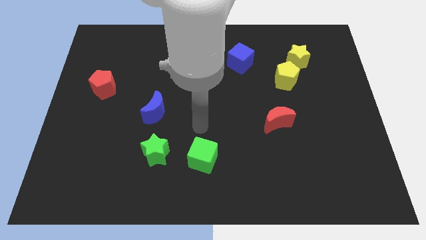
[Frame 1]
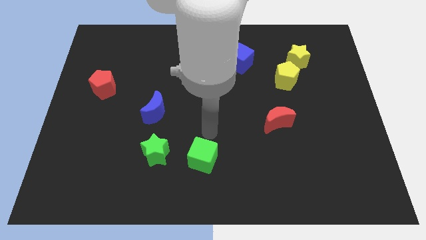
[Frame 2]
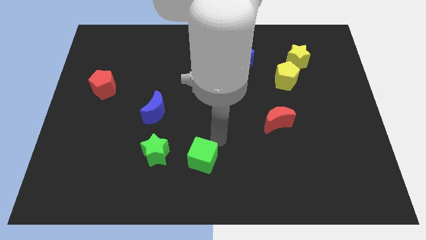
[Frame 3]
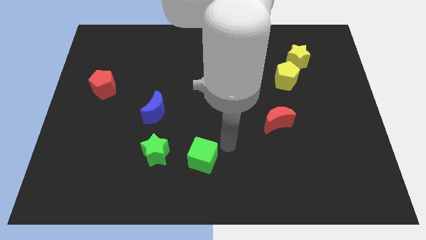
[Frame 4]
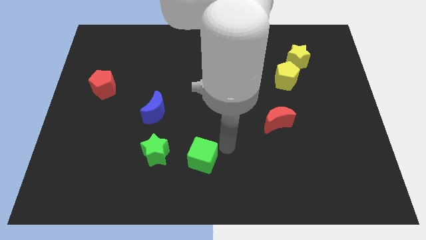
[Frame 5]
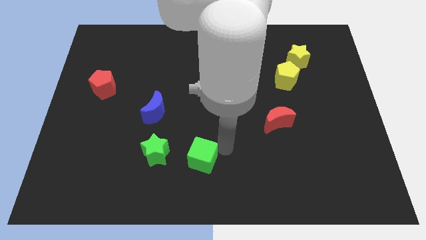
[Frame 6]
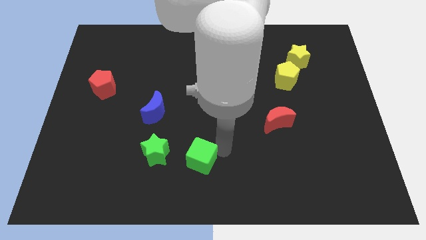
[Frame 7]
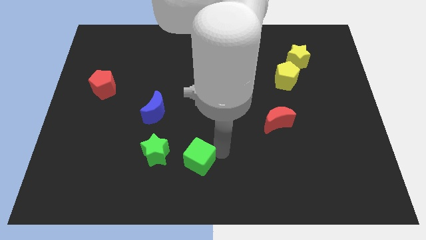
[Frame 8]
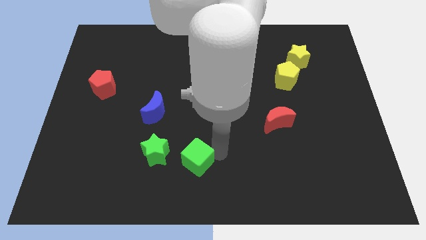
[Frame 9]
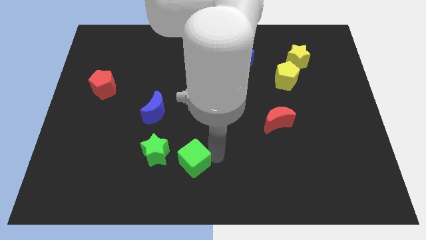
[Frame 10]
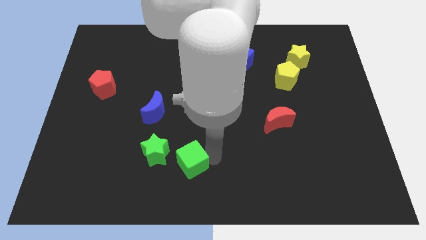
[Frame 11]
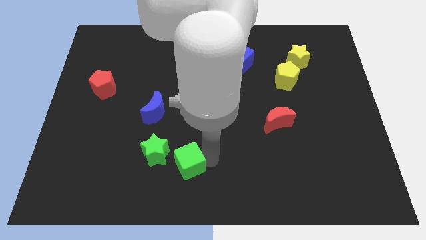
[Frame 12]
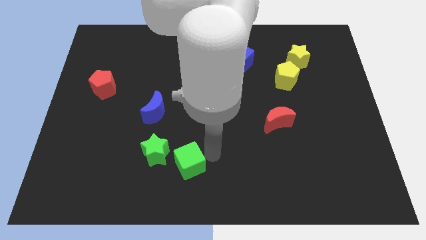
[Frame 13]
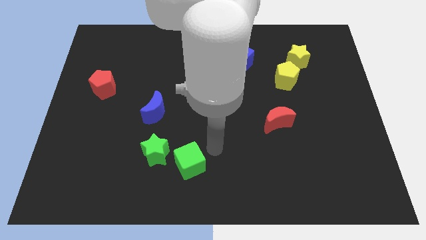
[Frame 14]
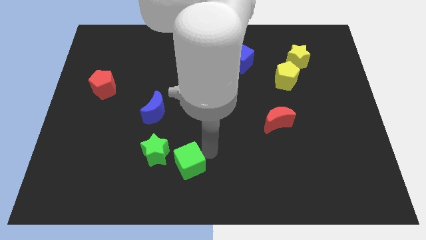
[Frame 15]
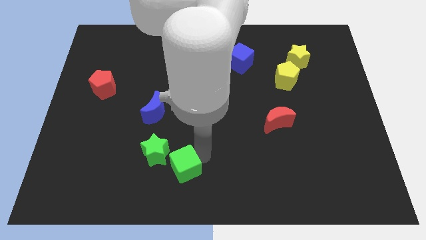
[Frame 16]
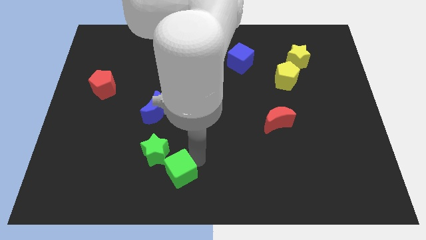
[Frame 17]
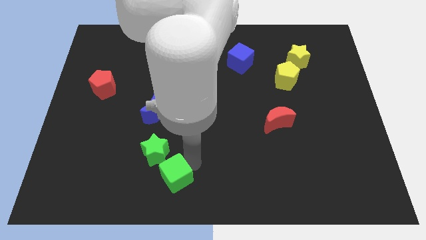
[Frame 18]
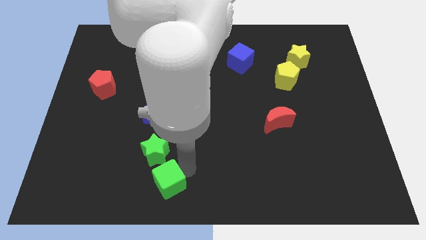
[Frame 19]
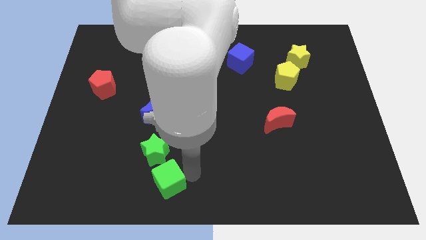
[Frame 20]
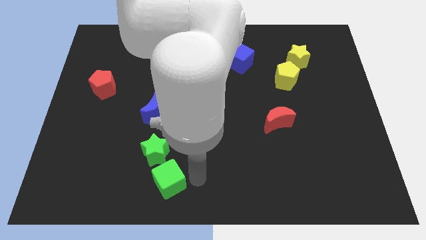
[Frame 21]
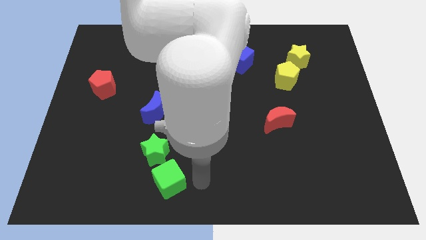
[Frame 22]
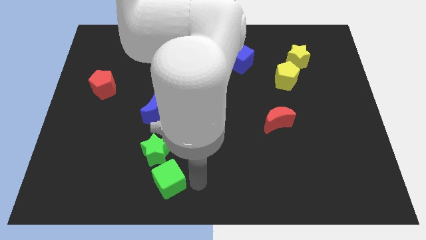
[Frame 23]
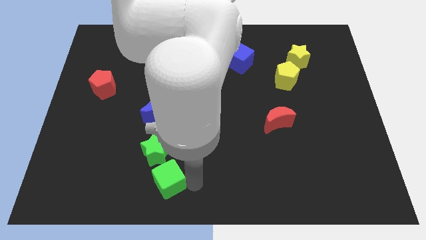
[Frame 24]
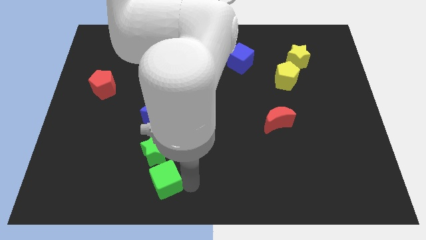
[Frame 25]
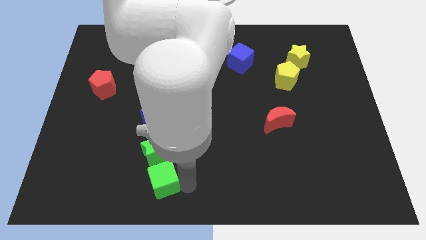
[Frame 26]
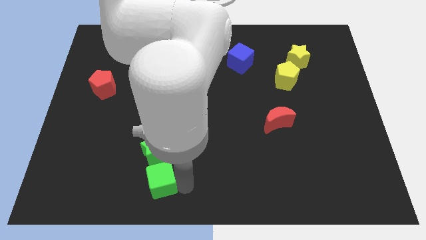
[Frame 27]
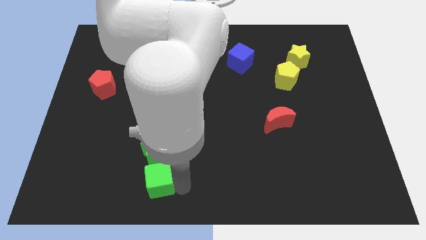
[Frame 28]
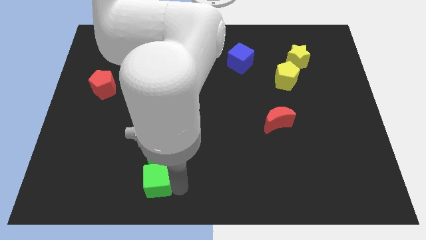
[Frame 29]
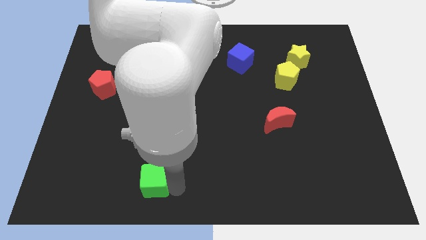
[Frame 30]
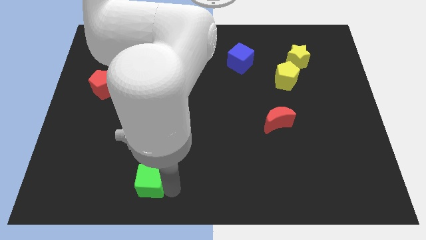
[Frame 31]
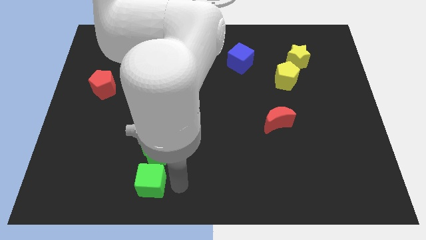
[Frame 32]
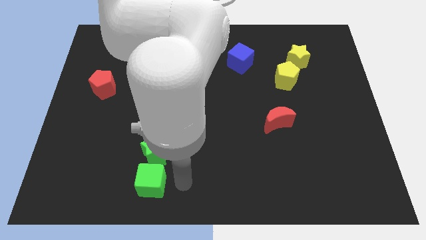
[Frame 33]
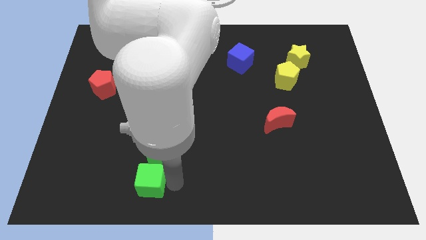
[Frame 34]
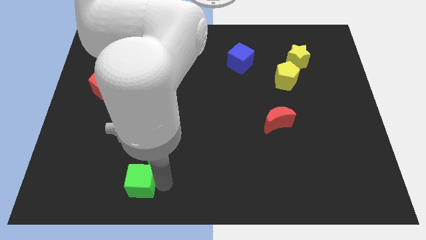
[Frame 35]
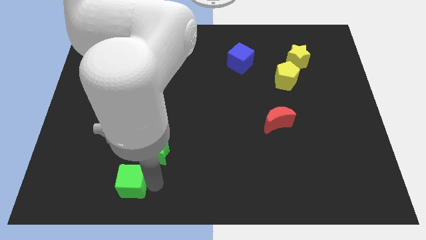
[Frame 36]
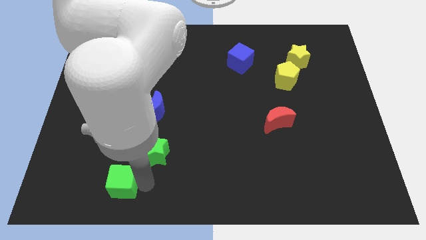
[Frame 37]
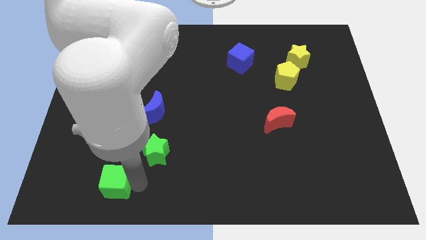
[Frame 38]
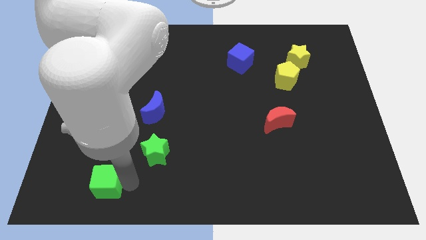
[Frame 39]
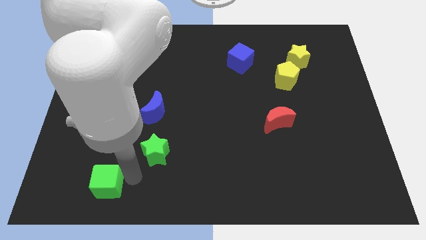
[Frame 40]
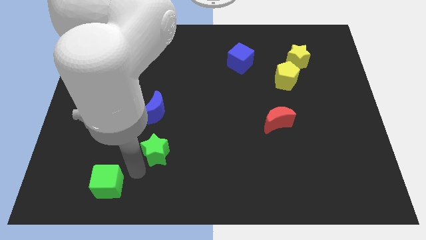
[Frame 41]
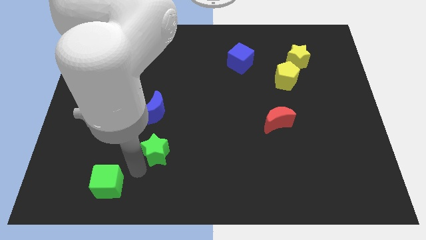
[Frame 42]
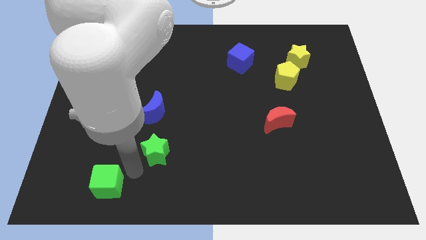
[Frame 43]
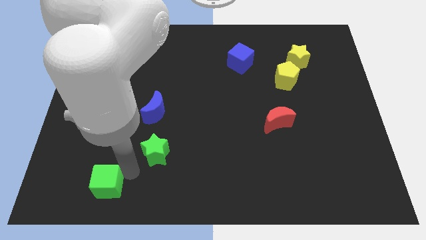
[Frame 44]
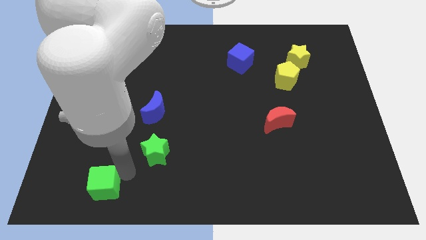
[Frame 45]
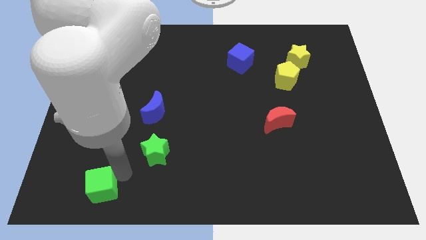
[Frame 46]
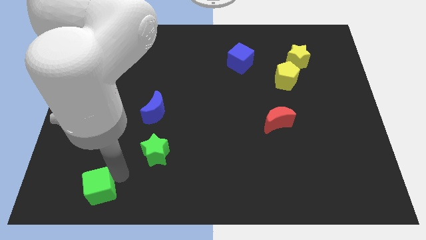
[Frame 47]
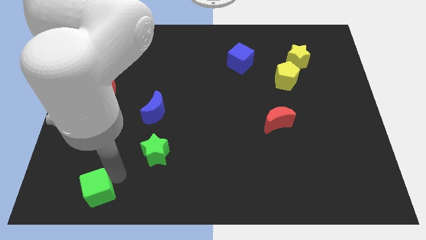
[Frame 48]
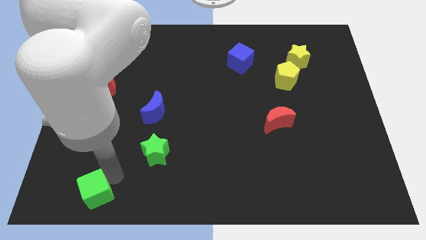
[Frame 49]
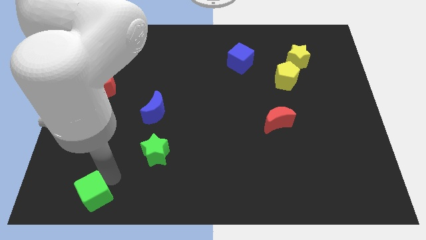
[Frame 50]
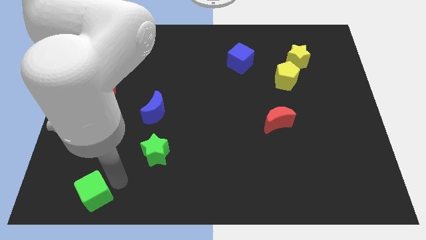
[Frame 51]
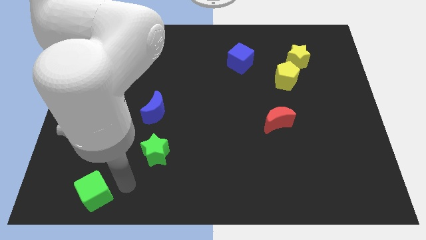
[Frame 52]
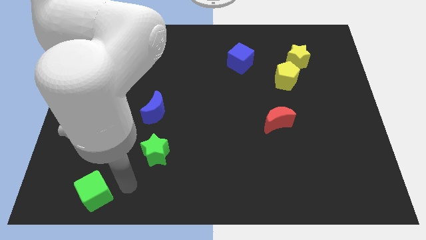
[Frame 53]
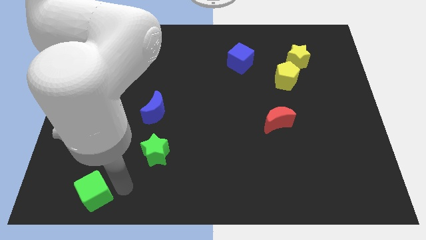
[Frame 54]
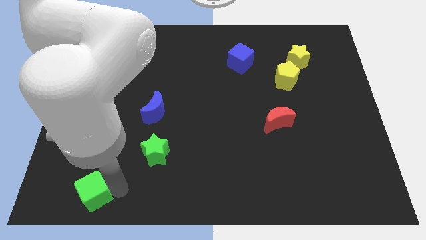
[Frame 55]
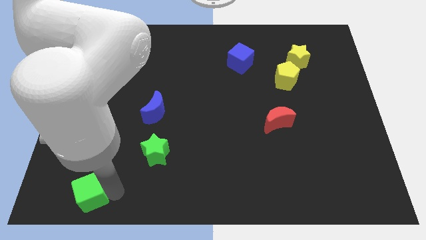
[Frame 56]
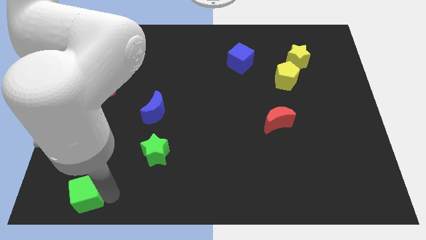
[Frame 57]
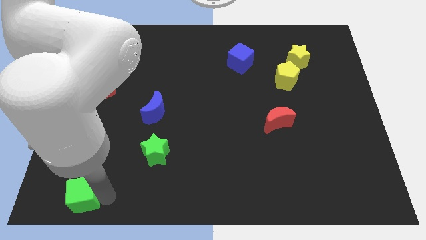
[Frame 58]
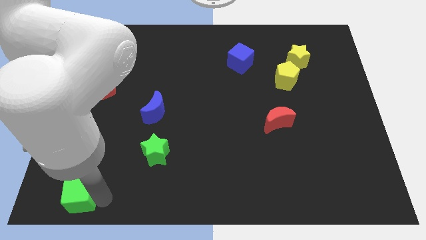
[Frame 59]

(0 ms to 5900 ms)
put the green cube to the lower left corner
